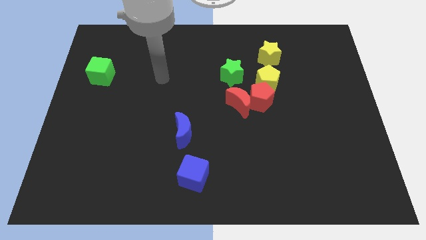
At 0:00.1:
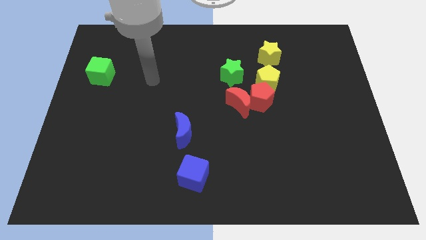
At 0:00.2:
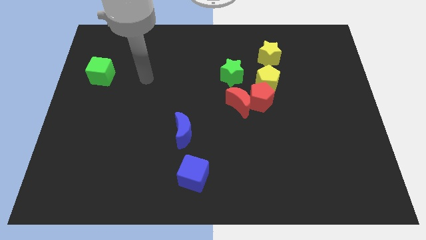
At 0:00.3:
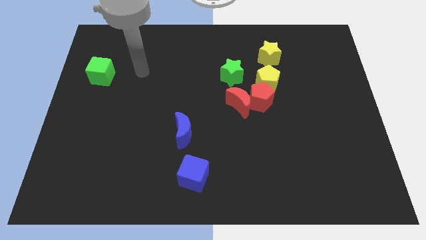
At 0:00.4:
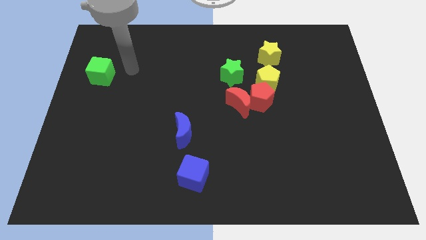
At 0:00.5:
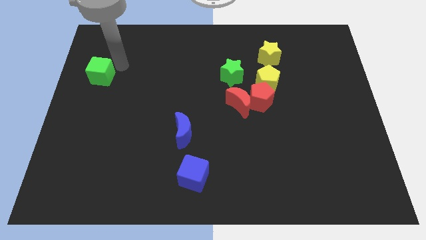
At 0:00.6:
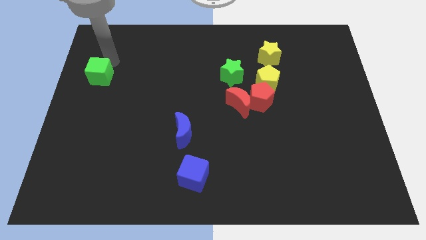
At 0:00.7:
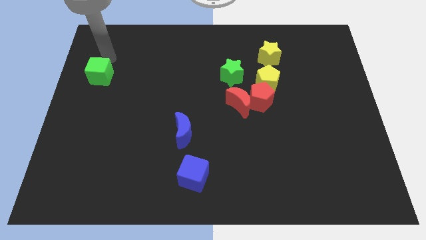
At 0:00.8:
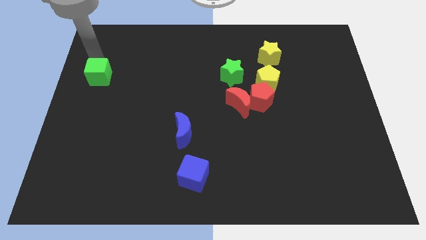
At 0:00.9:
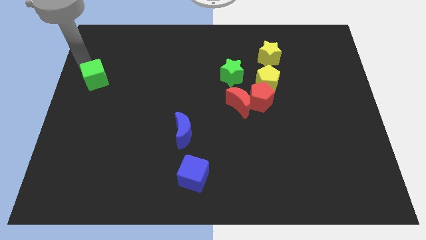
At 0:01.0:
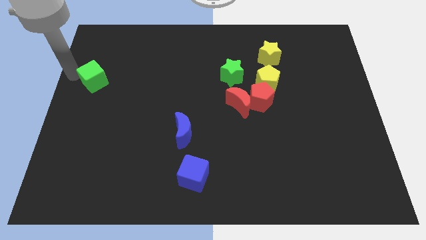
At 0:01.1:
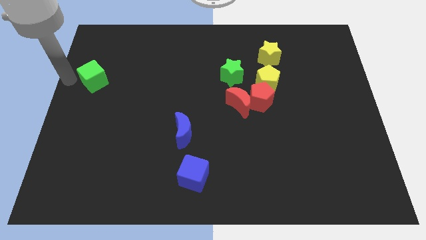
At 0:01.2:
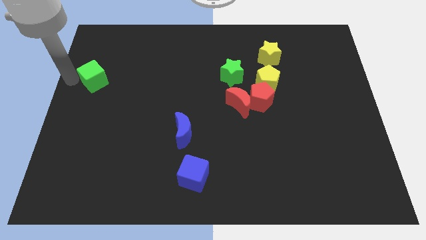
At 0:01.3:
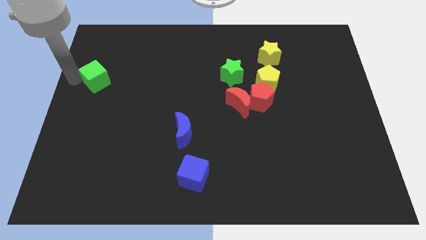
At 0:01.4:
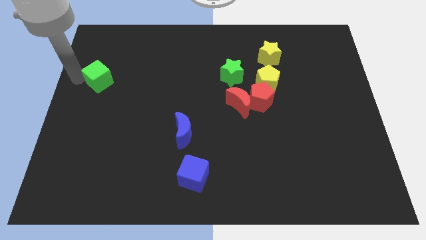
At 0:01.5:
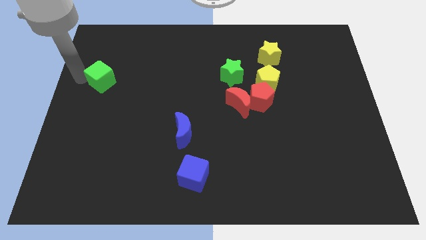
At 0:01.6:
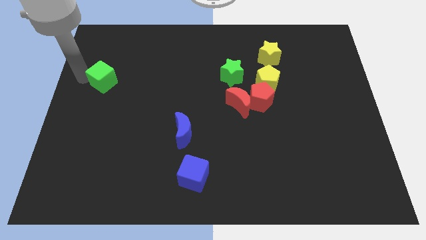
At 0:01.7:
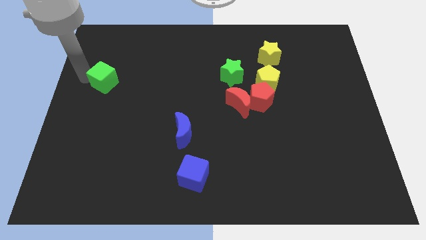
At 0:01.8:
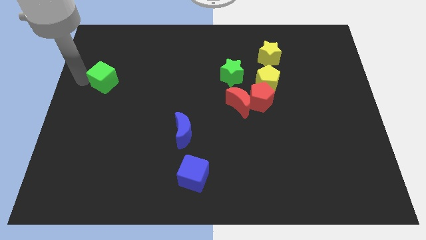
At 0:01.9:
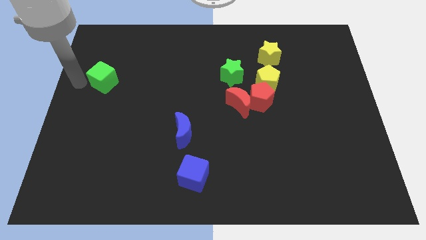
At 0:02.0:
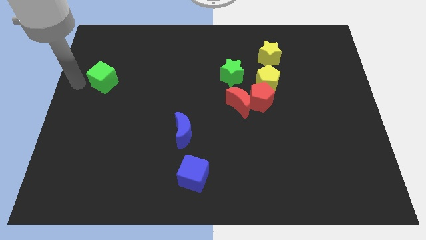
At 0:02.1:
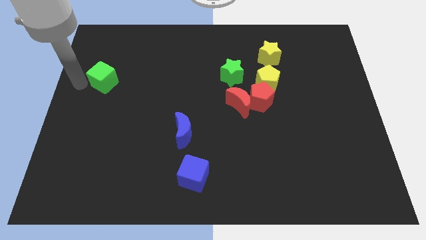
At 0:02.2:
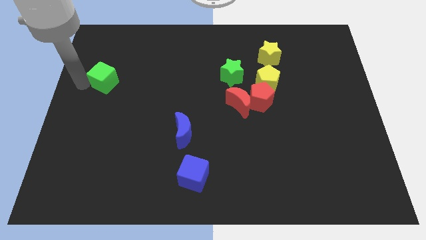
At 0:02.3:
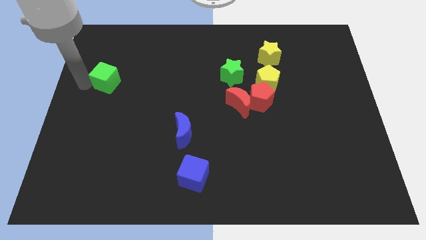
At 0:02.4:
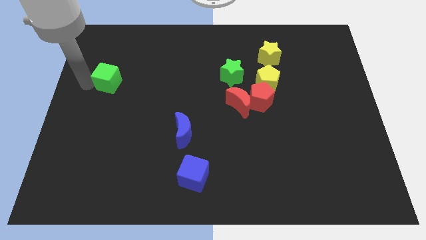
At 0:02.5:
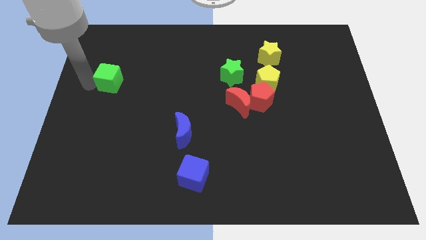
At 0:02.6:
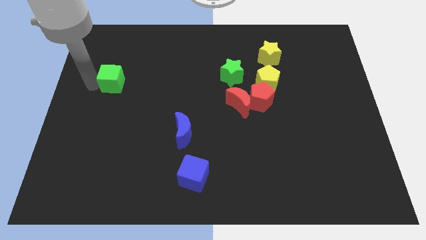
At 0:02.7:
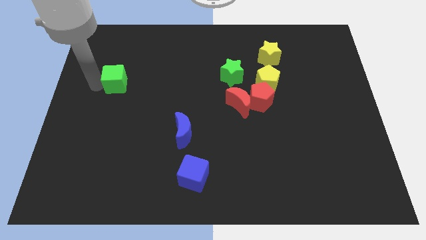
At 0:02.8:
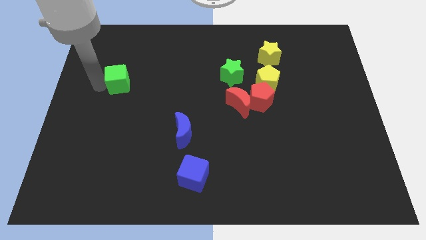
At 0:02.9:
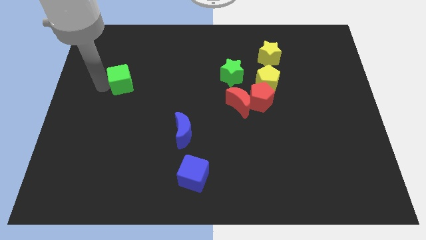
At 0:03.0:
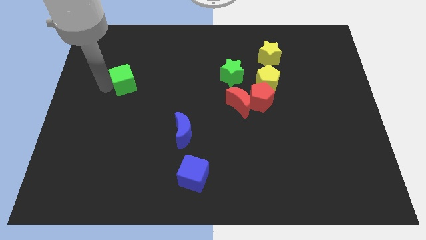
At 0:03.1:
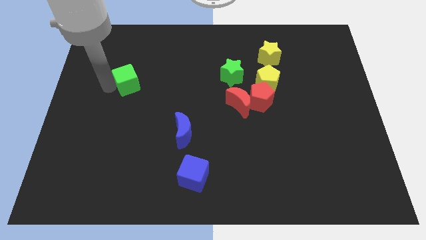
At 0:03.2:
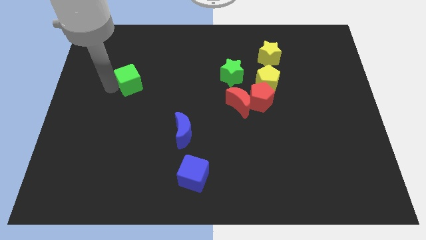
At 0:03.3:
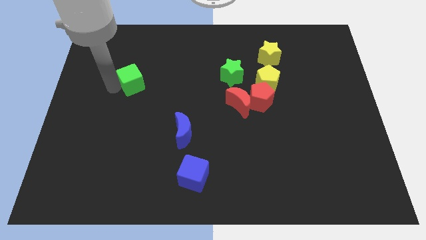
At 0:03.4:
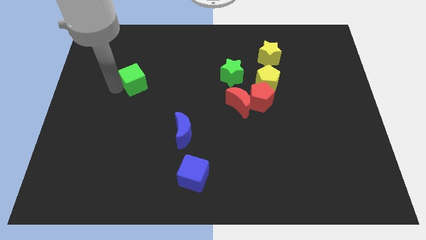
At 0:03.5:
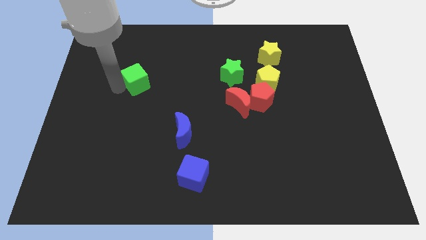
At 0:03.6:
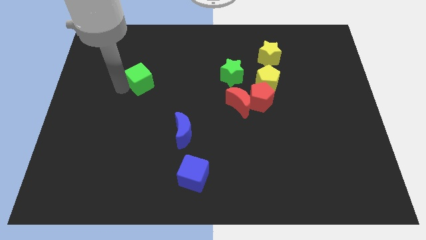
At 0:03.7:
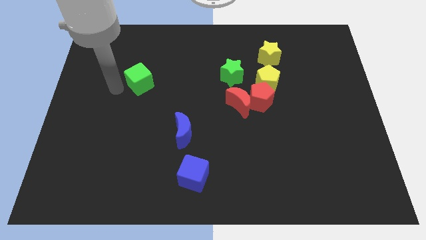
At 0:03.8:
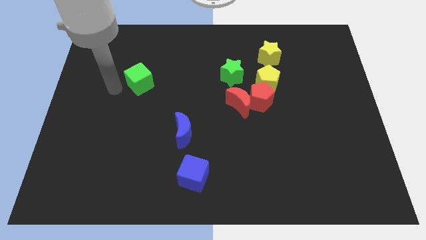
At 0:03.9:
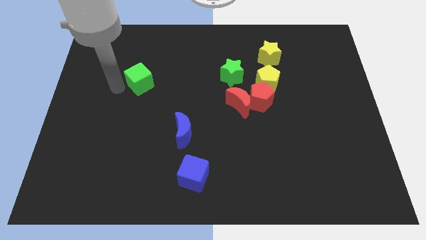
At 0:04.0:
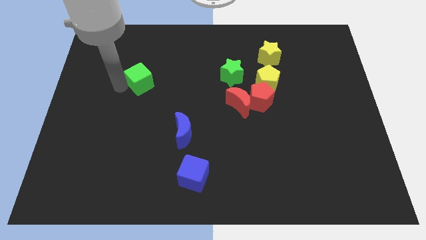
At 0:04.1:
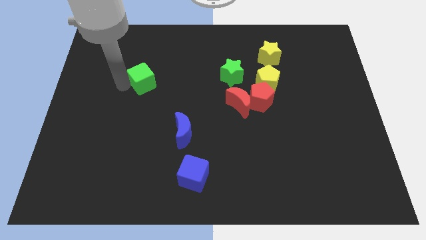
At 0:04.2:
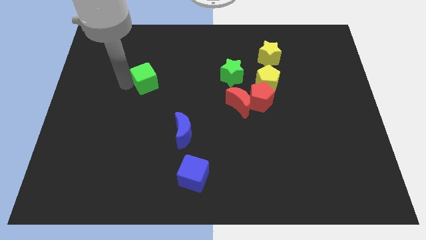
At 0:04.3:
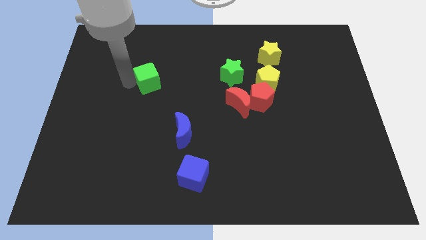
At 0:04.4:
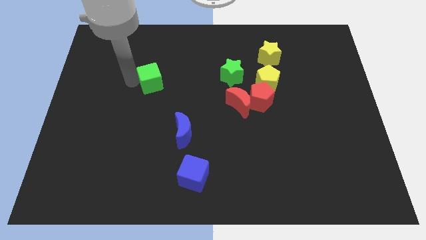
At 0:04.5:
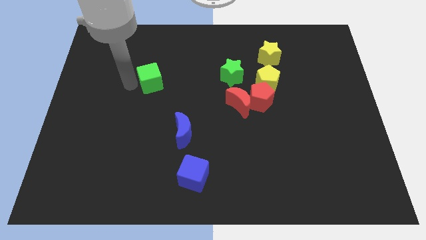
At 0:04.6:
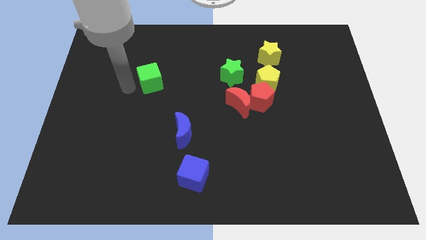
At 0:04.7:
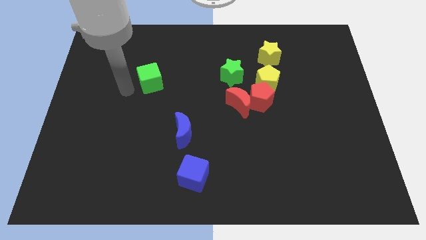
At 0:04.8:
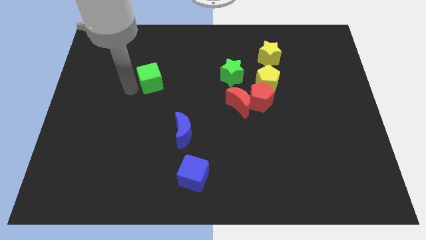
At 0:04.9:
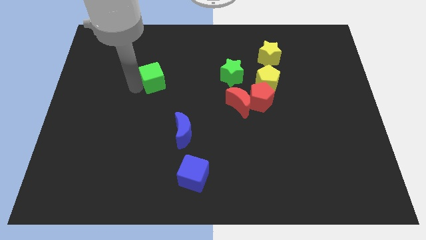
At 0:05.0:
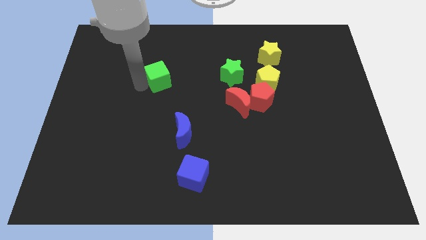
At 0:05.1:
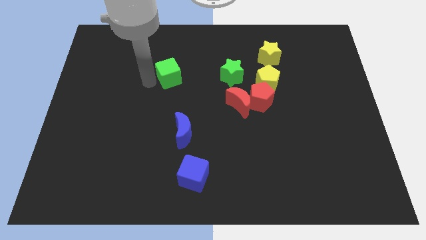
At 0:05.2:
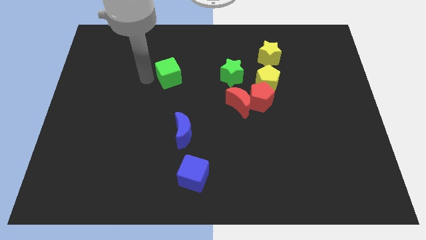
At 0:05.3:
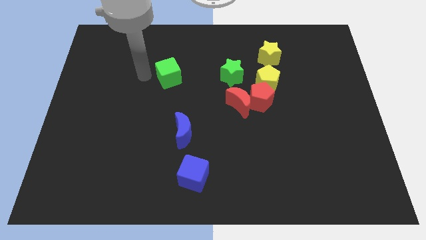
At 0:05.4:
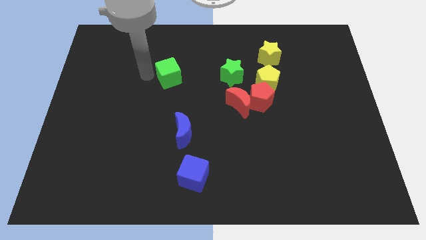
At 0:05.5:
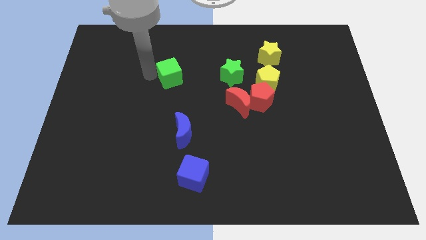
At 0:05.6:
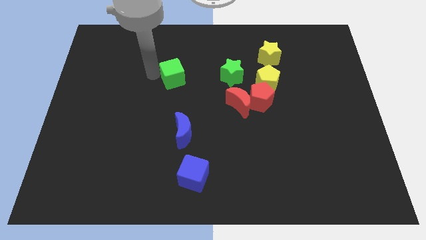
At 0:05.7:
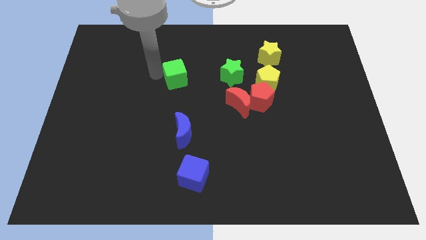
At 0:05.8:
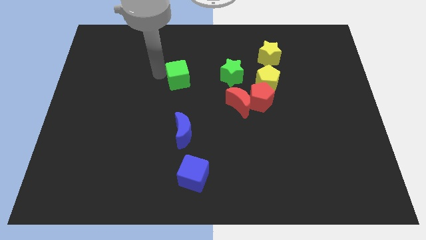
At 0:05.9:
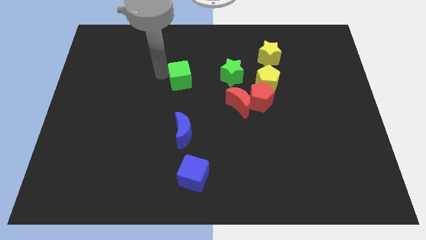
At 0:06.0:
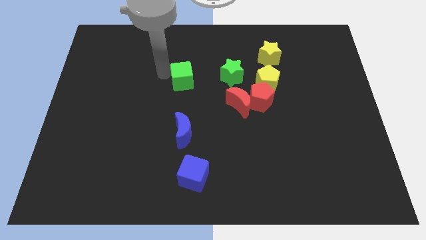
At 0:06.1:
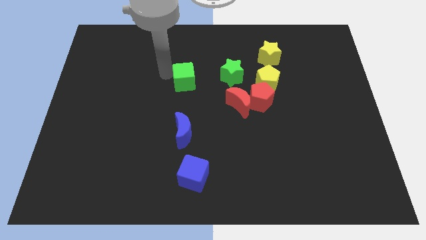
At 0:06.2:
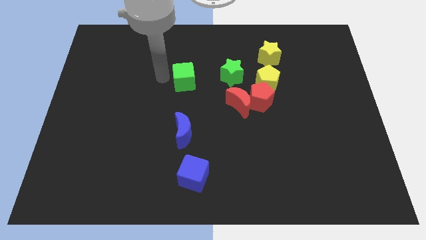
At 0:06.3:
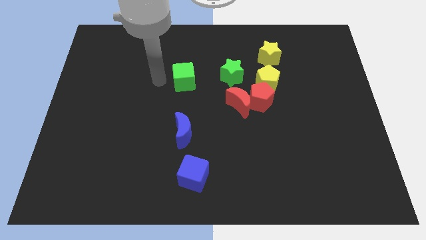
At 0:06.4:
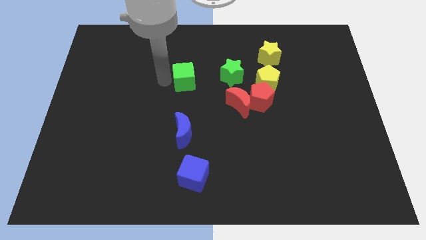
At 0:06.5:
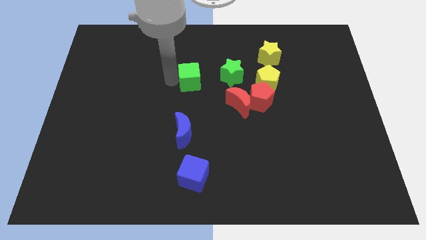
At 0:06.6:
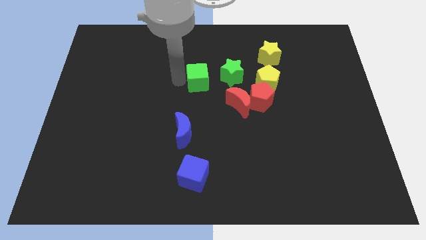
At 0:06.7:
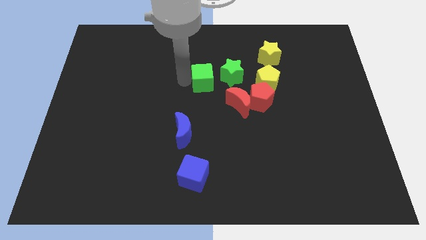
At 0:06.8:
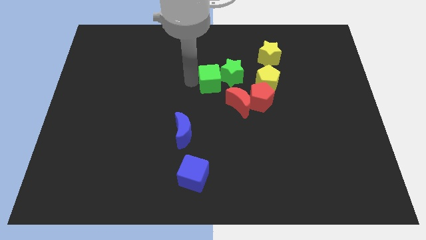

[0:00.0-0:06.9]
slide the green cube next to the green star
